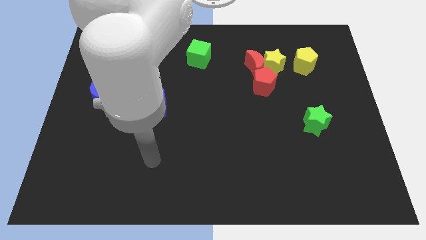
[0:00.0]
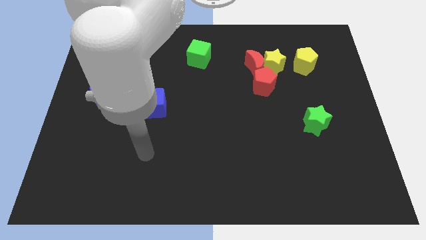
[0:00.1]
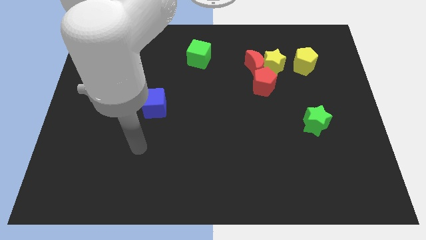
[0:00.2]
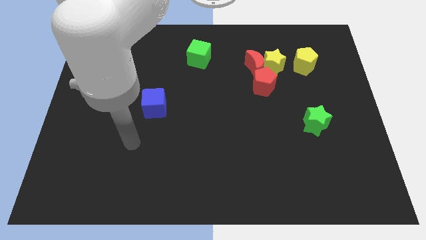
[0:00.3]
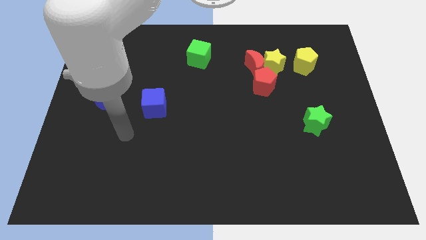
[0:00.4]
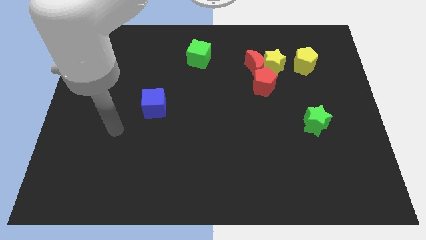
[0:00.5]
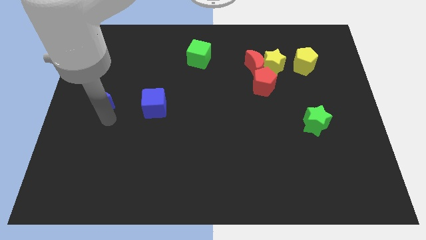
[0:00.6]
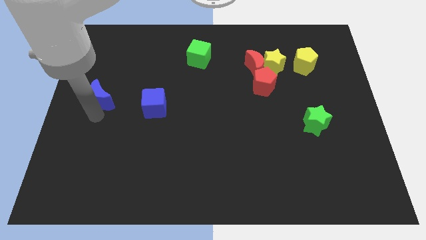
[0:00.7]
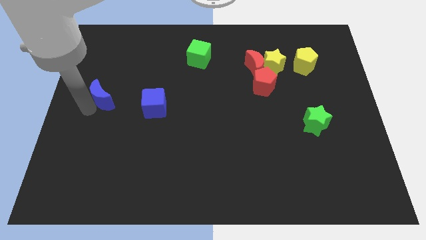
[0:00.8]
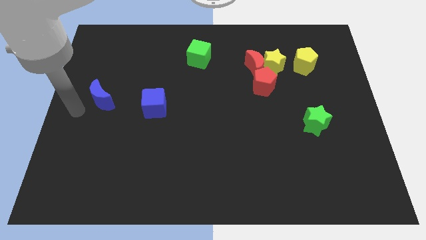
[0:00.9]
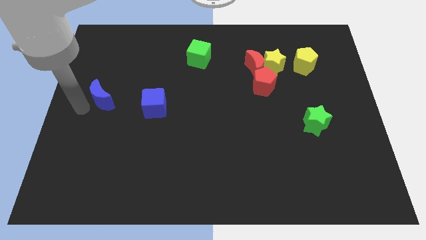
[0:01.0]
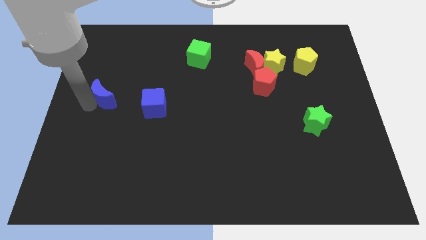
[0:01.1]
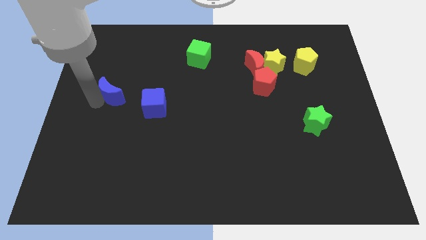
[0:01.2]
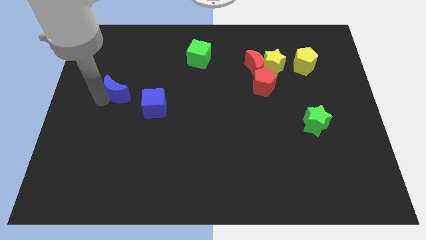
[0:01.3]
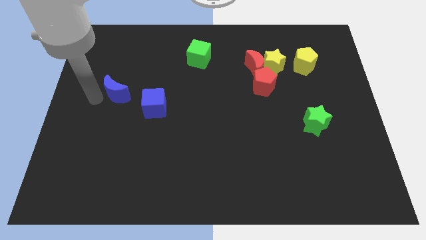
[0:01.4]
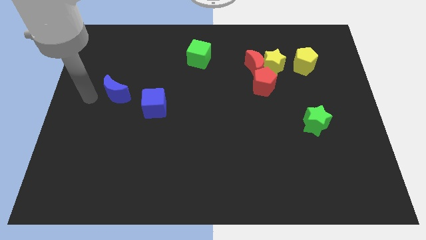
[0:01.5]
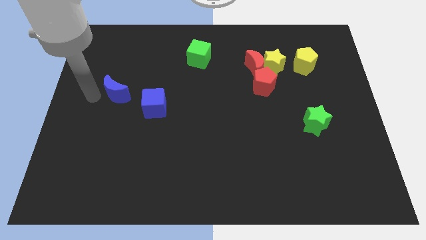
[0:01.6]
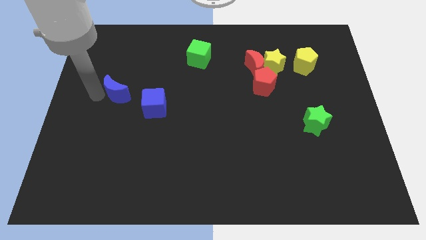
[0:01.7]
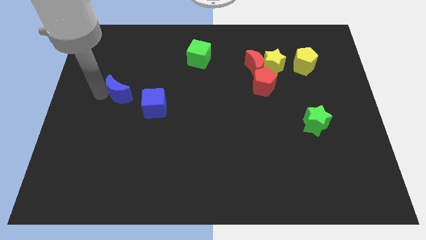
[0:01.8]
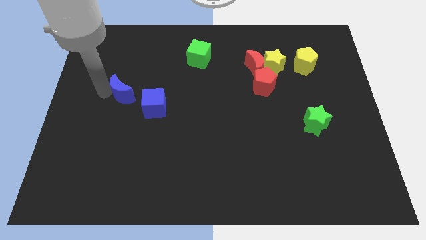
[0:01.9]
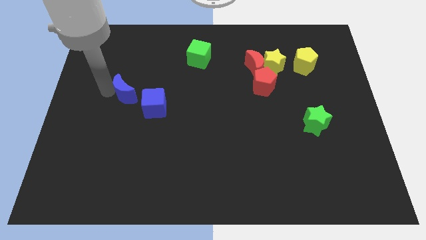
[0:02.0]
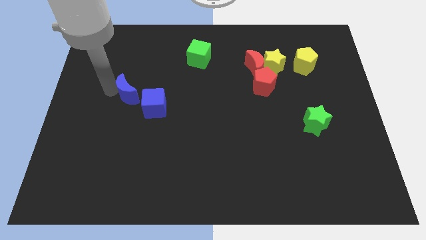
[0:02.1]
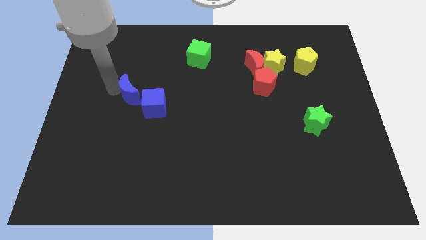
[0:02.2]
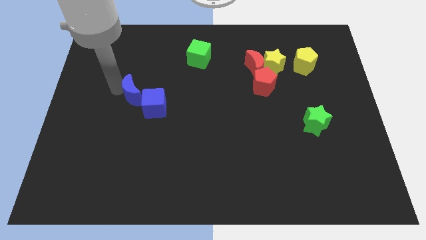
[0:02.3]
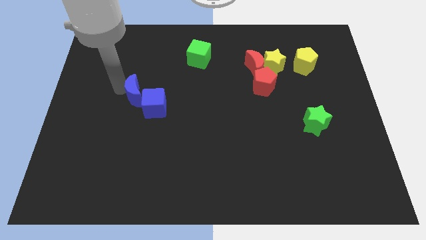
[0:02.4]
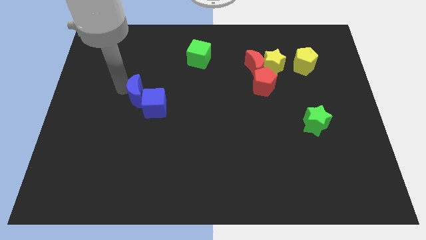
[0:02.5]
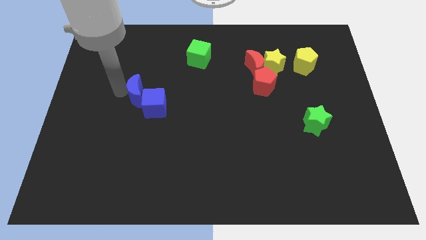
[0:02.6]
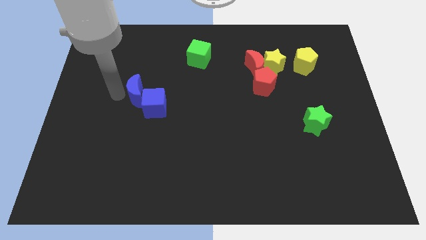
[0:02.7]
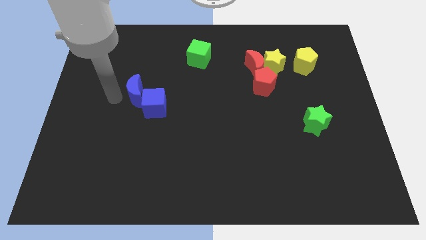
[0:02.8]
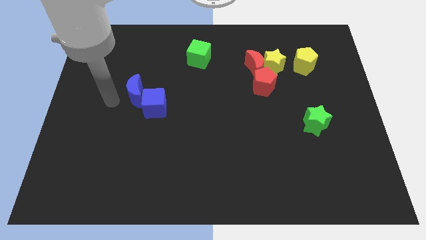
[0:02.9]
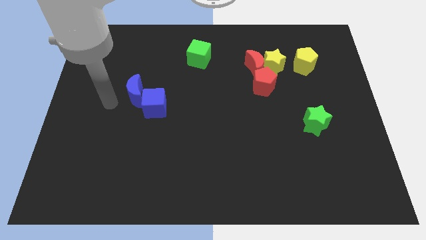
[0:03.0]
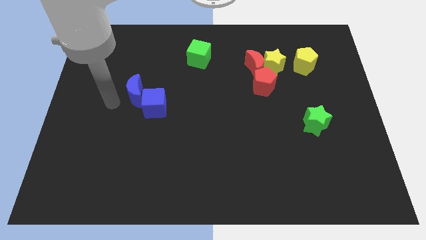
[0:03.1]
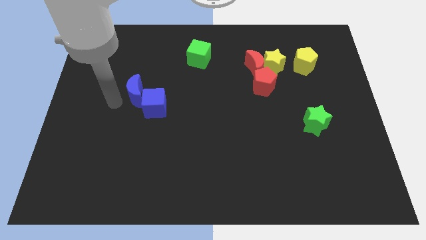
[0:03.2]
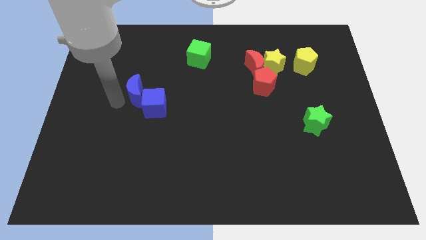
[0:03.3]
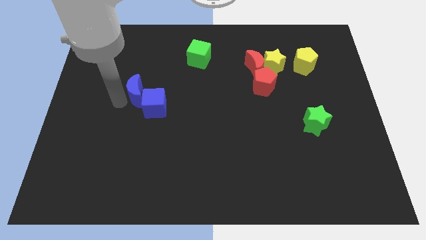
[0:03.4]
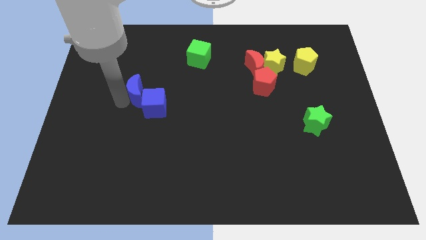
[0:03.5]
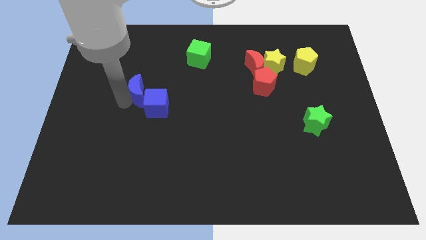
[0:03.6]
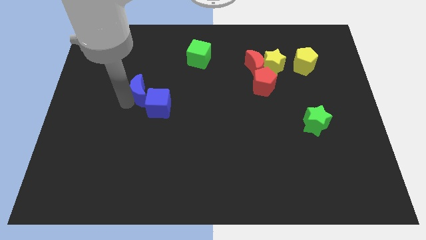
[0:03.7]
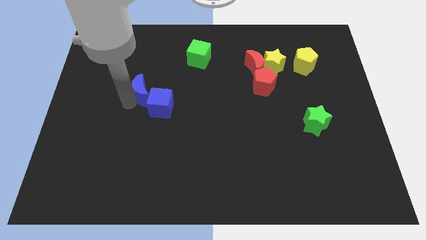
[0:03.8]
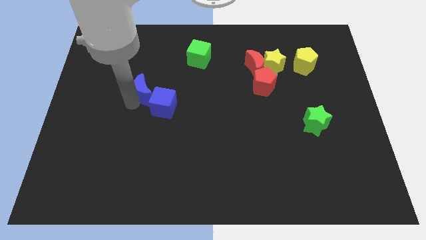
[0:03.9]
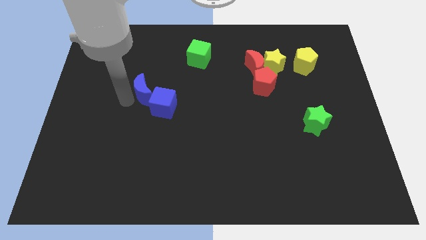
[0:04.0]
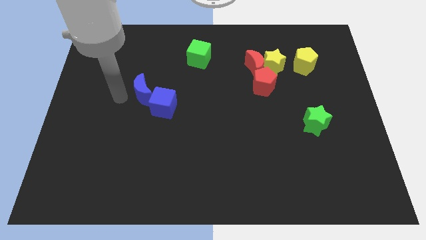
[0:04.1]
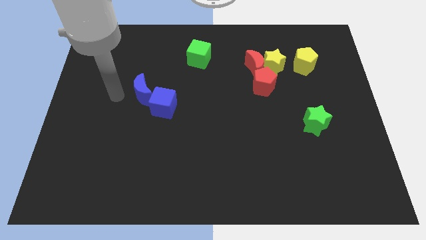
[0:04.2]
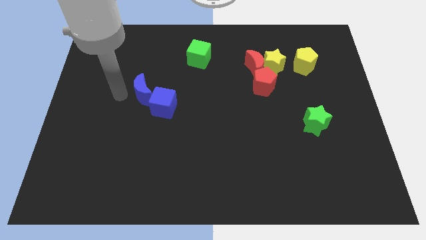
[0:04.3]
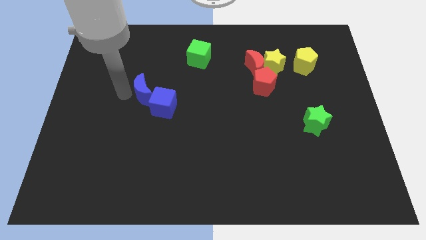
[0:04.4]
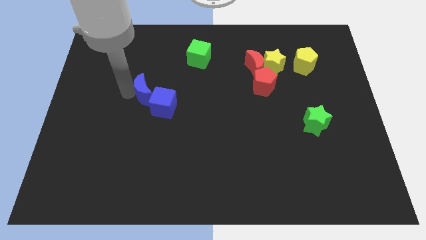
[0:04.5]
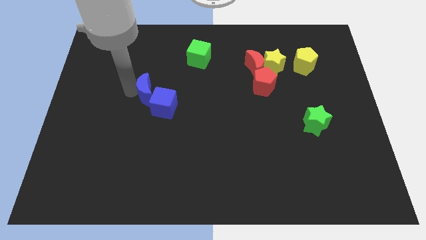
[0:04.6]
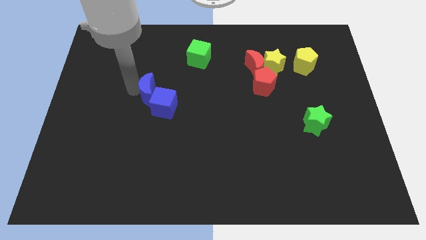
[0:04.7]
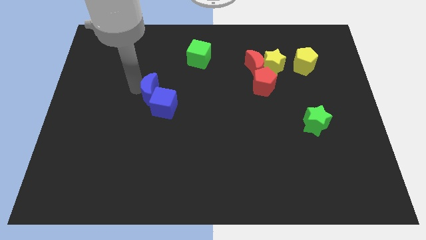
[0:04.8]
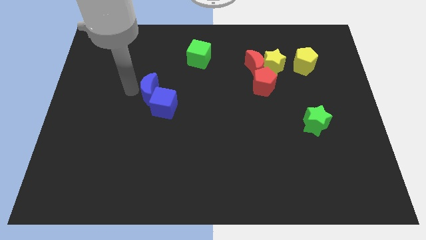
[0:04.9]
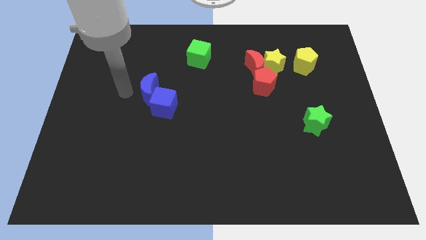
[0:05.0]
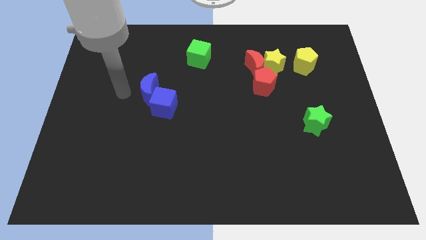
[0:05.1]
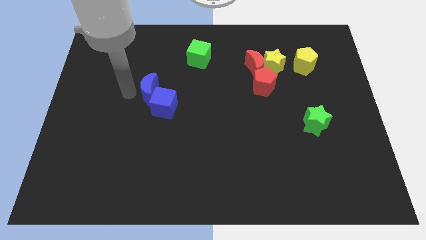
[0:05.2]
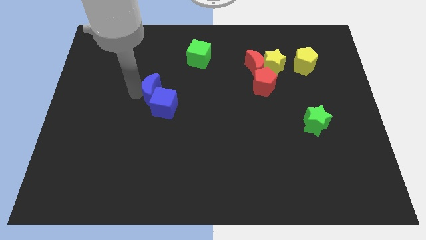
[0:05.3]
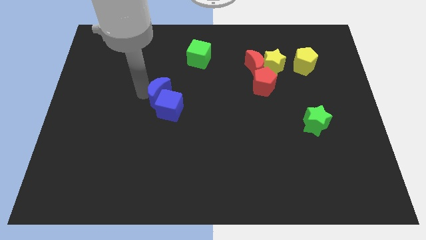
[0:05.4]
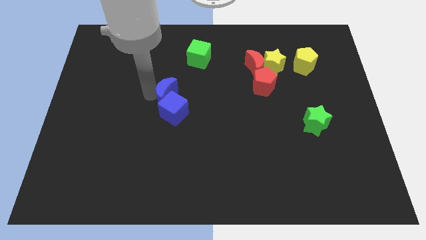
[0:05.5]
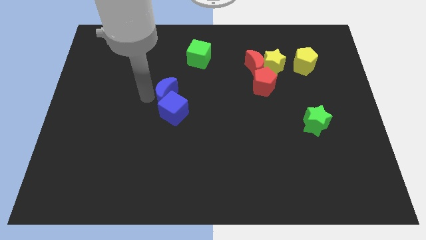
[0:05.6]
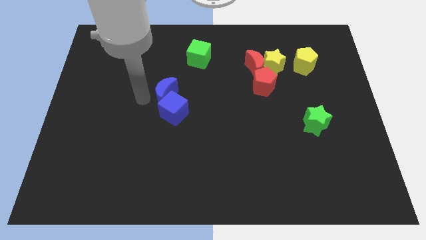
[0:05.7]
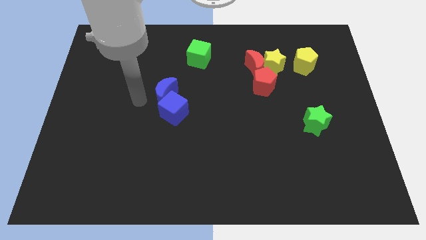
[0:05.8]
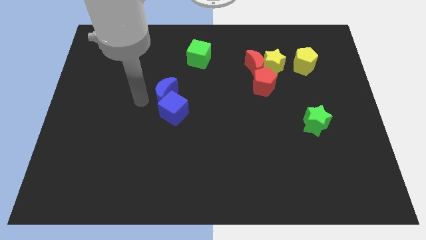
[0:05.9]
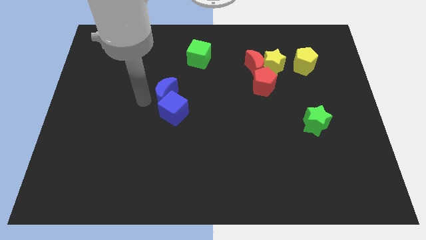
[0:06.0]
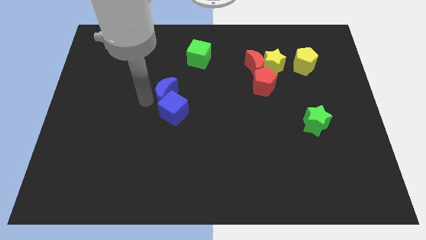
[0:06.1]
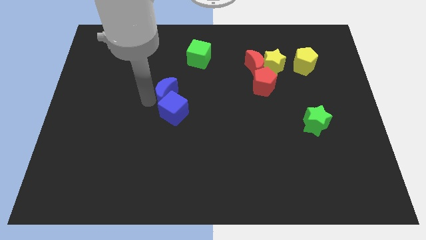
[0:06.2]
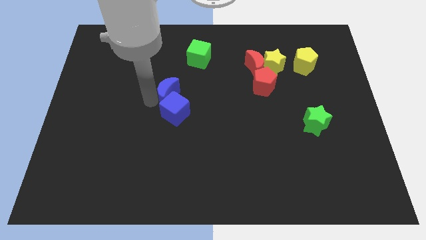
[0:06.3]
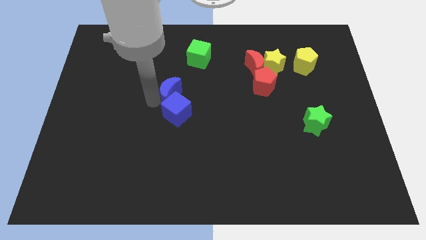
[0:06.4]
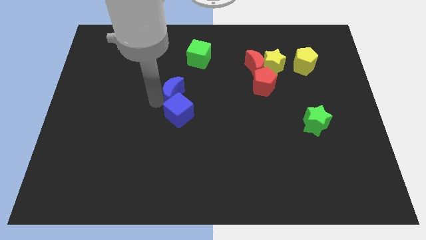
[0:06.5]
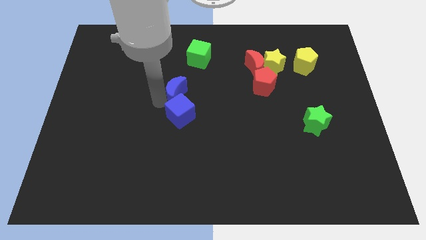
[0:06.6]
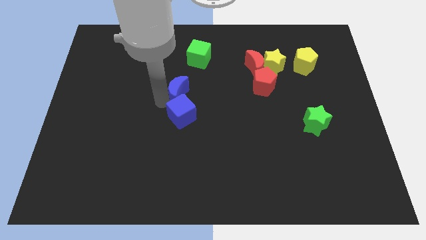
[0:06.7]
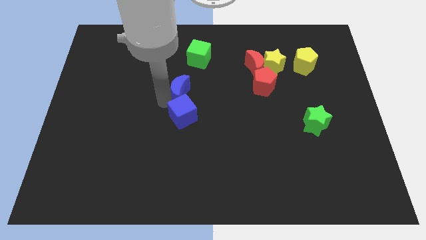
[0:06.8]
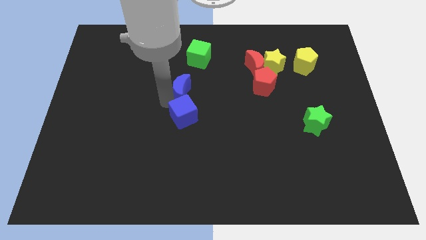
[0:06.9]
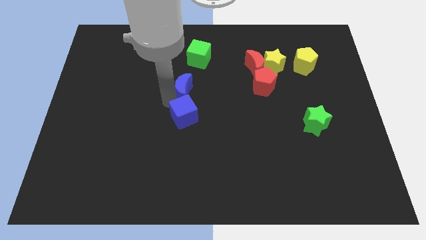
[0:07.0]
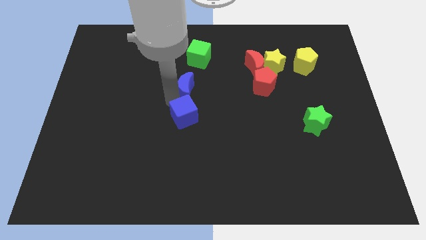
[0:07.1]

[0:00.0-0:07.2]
push the blue moon right

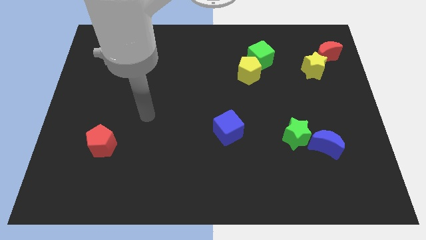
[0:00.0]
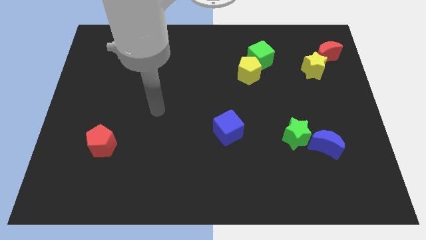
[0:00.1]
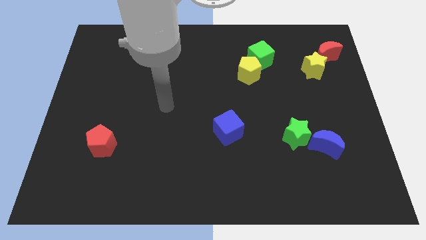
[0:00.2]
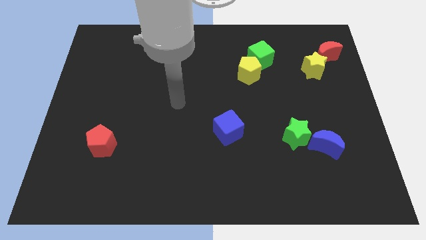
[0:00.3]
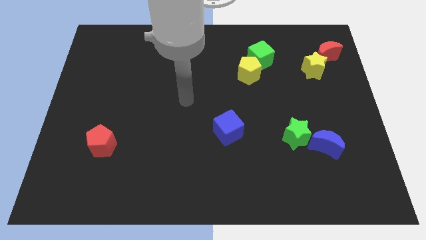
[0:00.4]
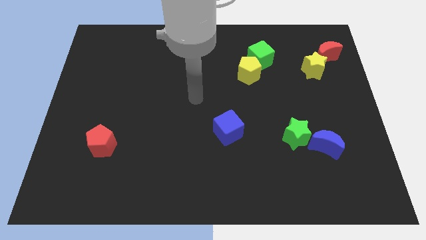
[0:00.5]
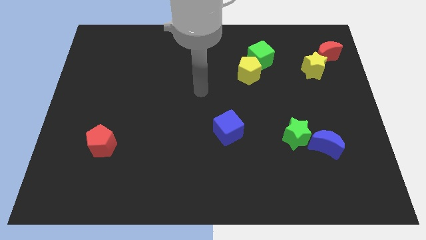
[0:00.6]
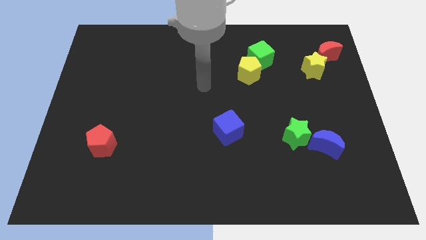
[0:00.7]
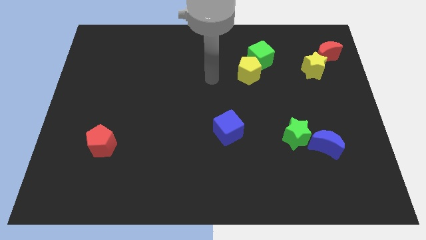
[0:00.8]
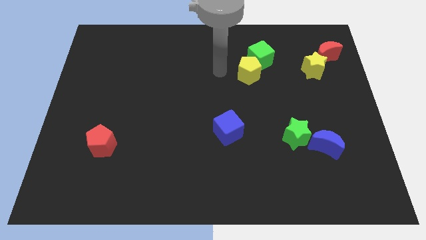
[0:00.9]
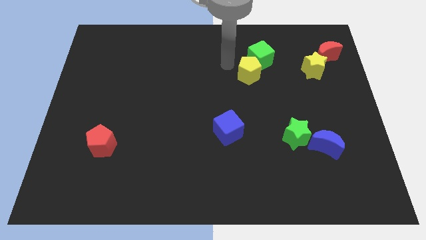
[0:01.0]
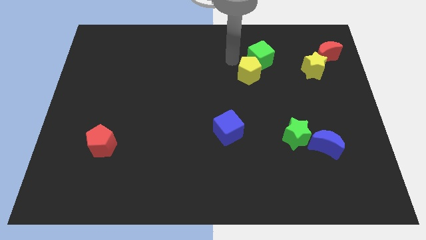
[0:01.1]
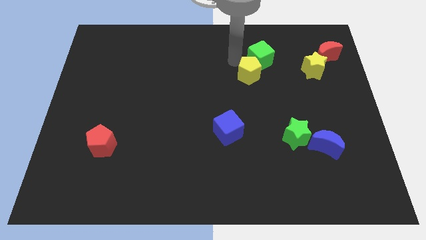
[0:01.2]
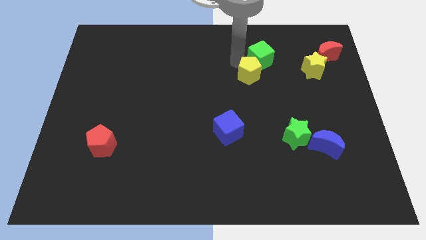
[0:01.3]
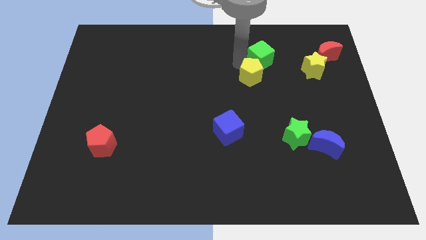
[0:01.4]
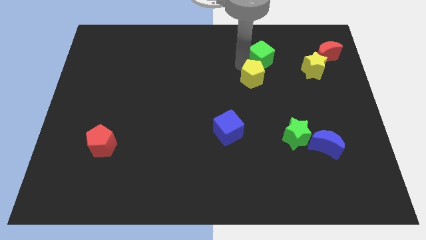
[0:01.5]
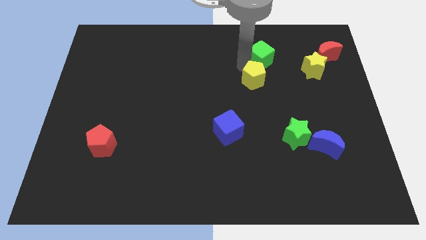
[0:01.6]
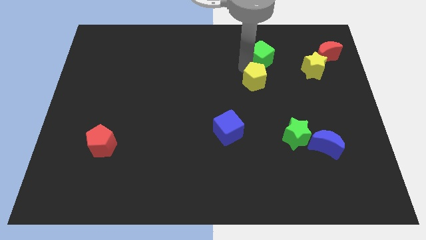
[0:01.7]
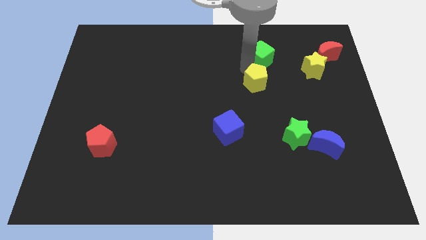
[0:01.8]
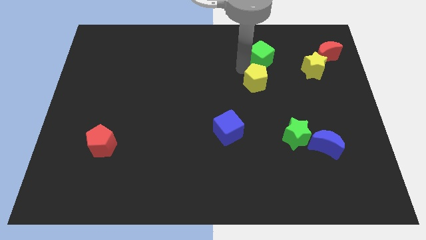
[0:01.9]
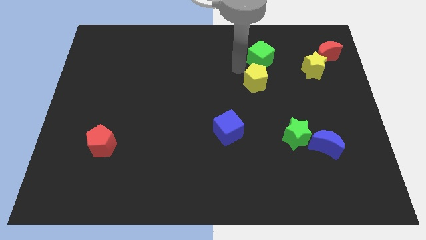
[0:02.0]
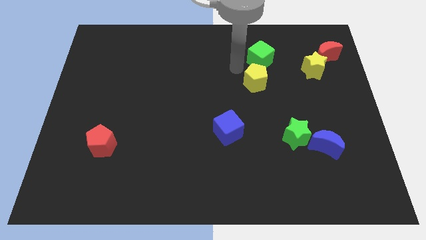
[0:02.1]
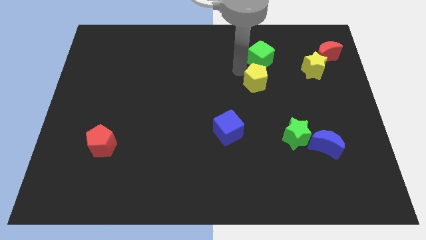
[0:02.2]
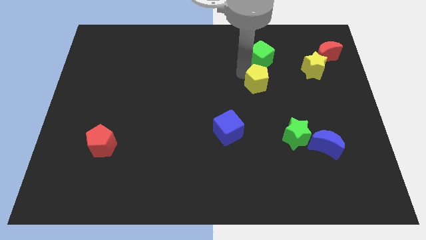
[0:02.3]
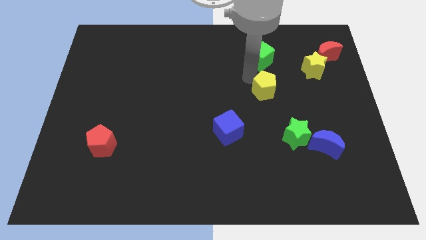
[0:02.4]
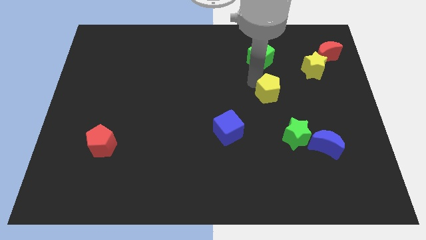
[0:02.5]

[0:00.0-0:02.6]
slightly slide the yellow pentagon down and then to the right
